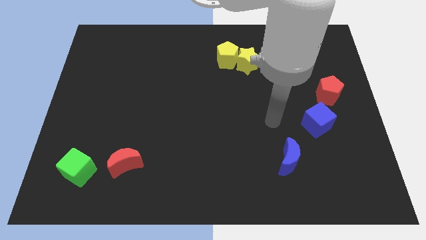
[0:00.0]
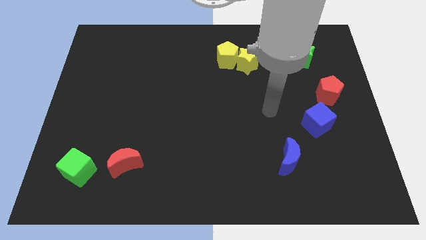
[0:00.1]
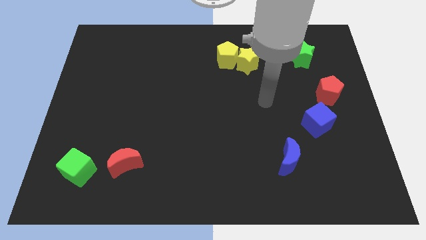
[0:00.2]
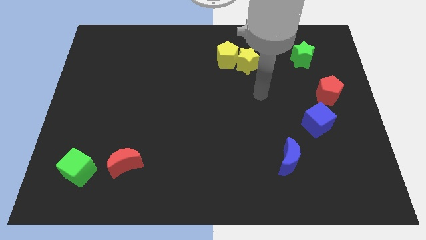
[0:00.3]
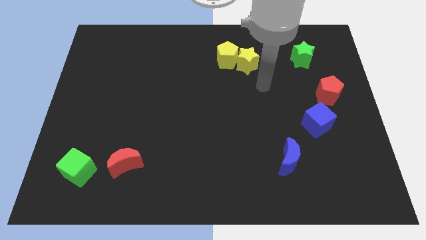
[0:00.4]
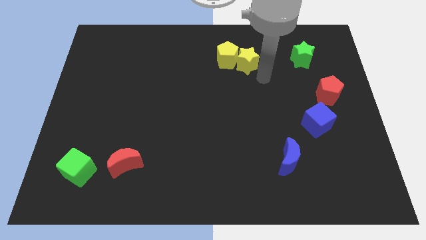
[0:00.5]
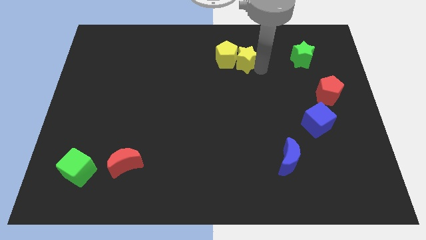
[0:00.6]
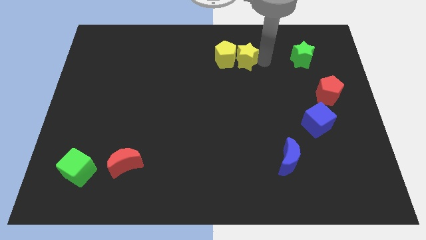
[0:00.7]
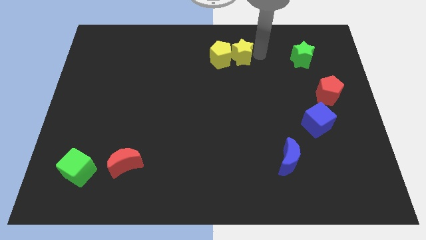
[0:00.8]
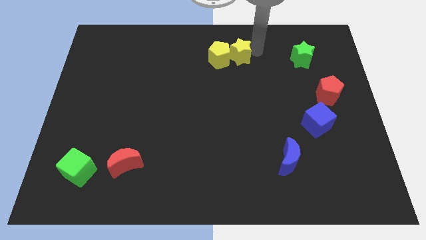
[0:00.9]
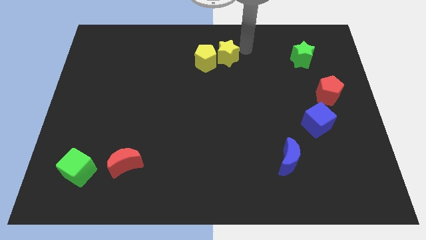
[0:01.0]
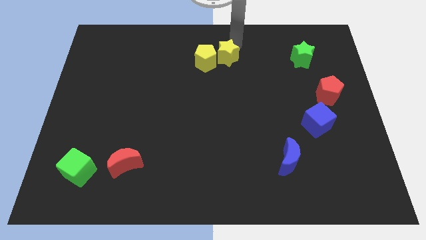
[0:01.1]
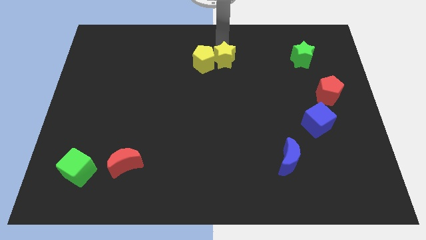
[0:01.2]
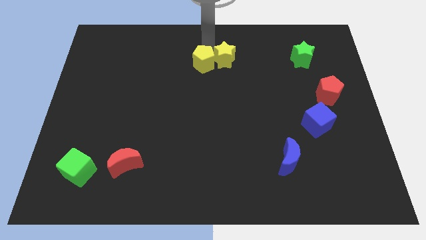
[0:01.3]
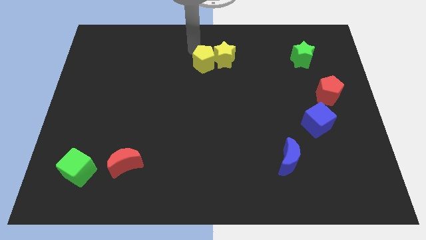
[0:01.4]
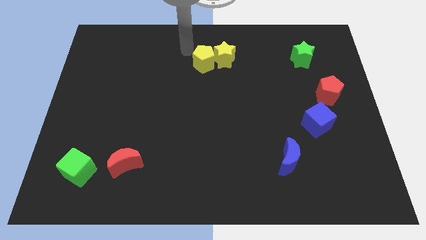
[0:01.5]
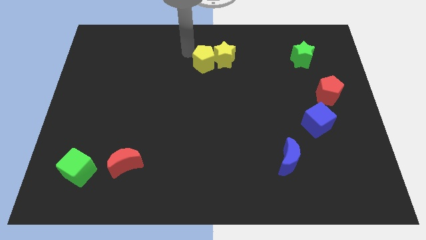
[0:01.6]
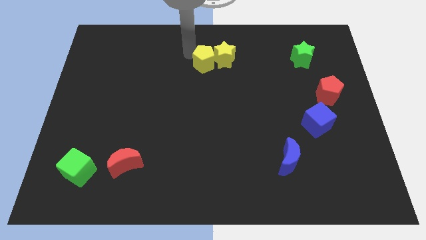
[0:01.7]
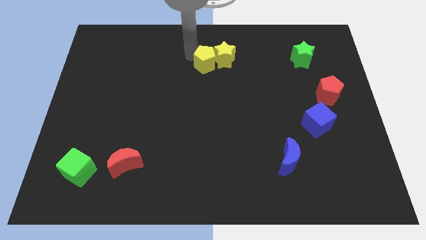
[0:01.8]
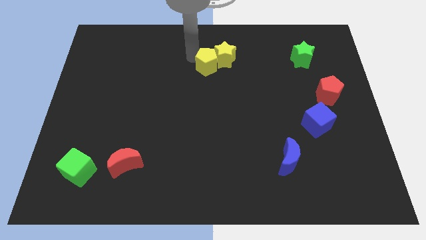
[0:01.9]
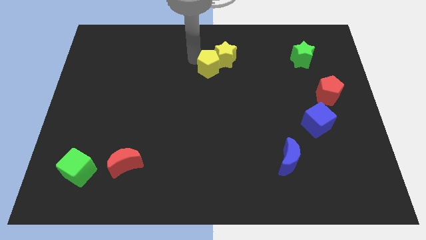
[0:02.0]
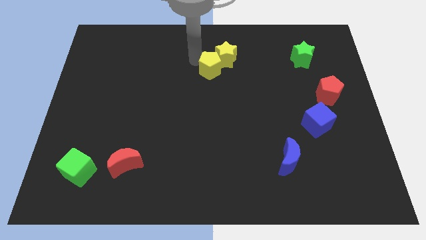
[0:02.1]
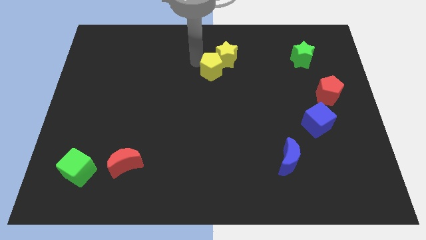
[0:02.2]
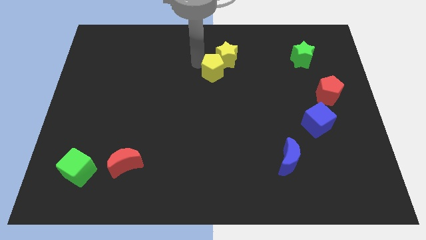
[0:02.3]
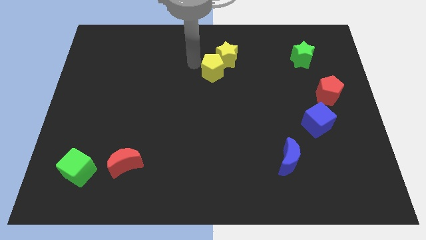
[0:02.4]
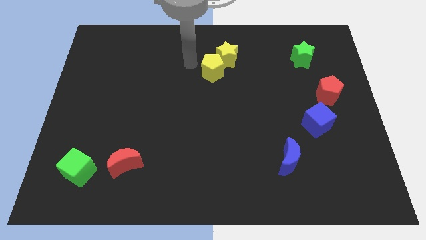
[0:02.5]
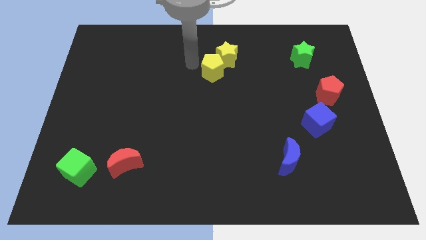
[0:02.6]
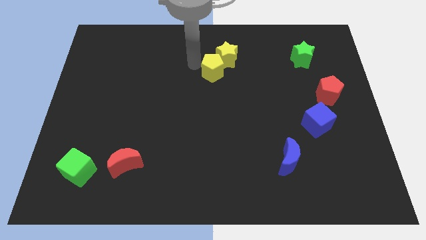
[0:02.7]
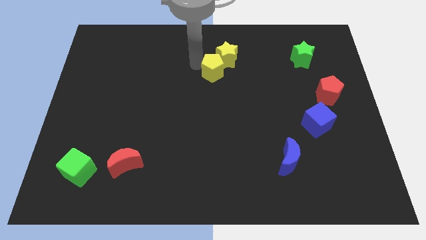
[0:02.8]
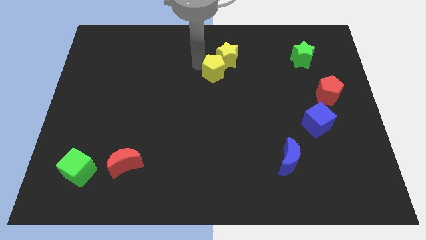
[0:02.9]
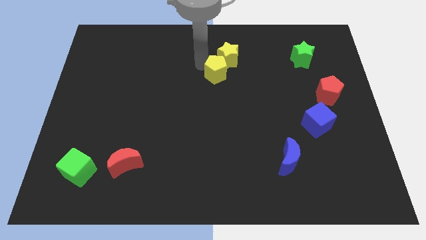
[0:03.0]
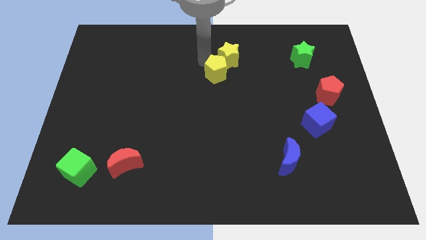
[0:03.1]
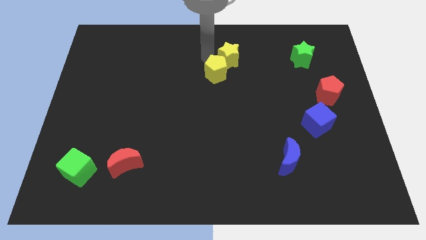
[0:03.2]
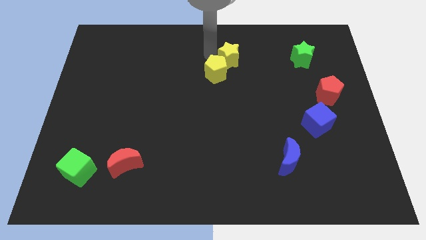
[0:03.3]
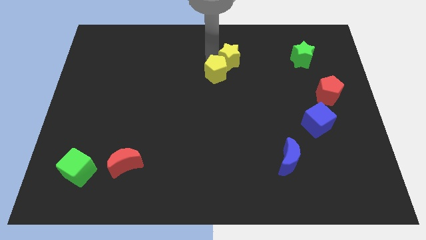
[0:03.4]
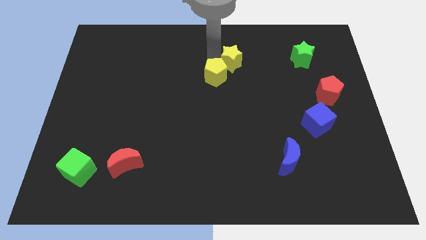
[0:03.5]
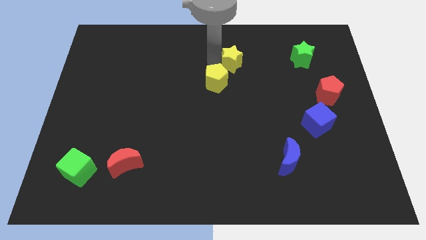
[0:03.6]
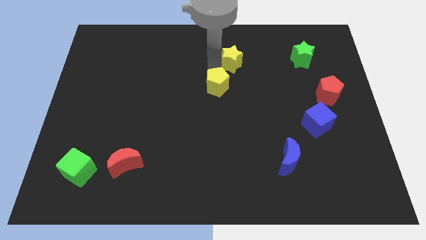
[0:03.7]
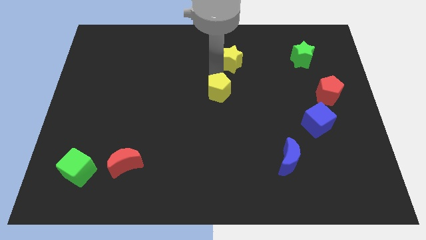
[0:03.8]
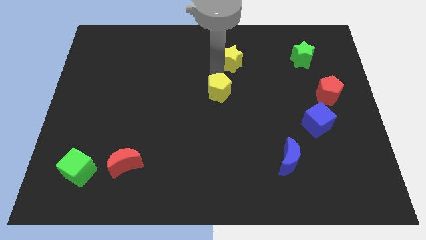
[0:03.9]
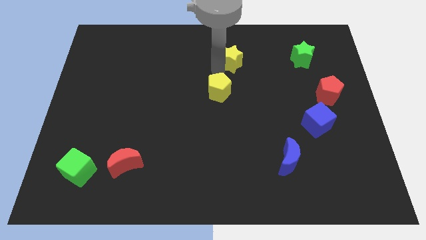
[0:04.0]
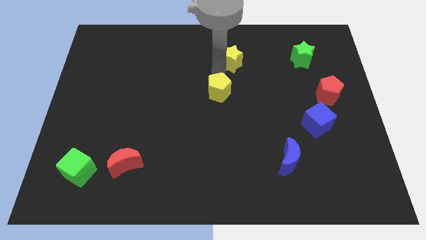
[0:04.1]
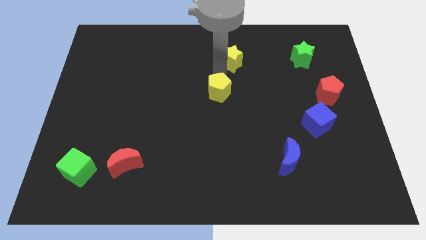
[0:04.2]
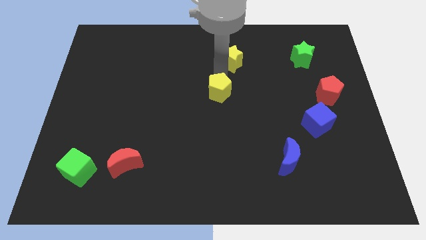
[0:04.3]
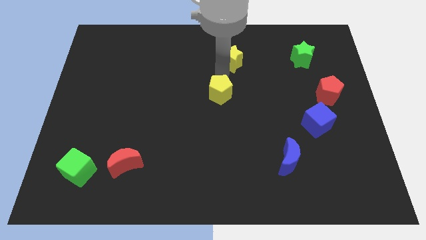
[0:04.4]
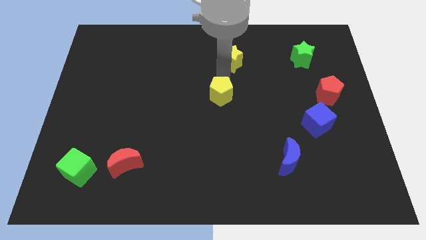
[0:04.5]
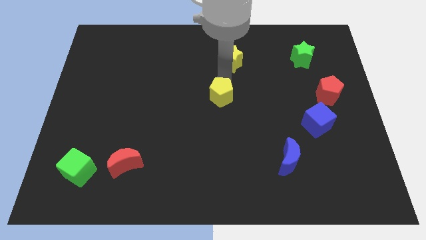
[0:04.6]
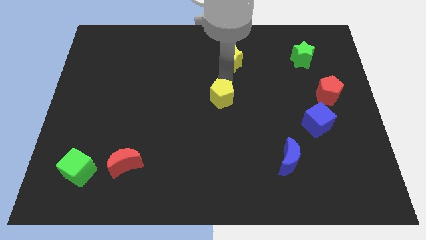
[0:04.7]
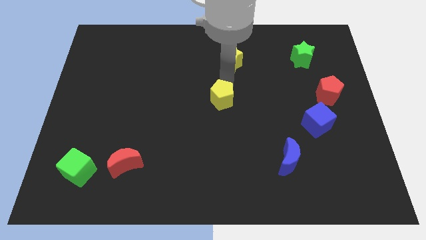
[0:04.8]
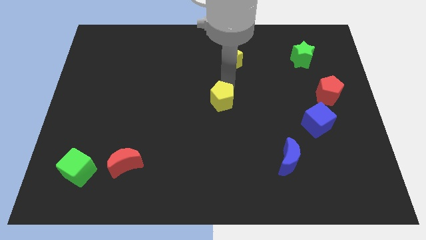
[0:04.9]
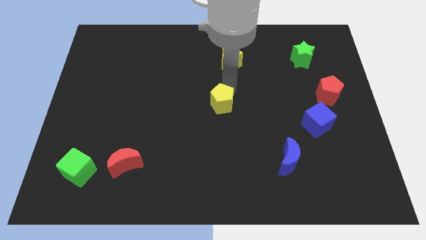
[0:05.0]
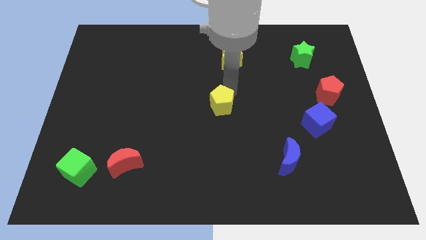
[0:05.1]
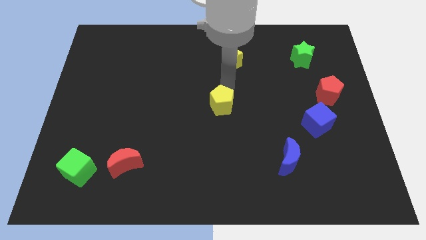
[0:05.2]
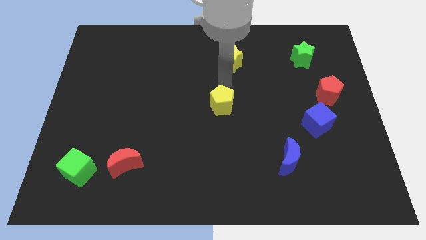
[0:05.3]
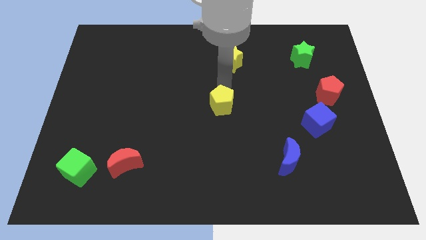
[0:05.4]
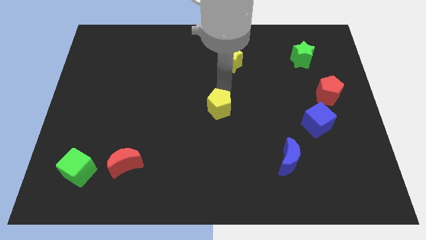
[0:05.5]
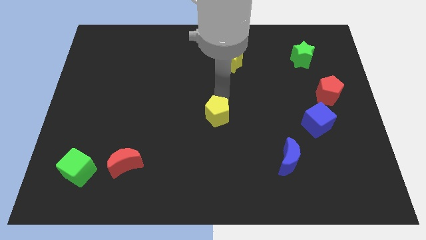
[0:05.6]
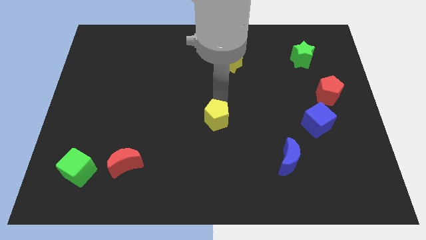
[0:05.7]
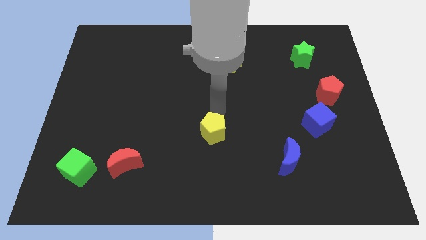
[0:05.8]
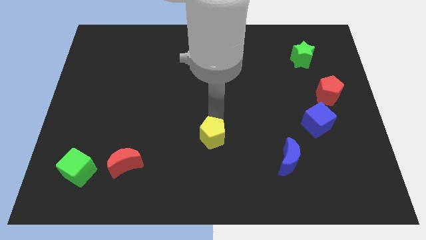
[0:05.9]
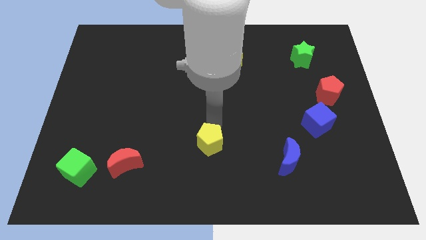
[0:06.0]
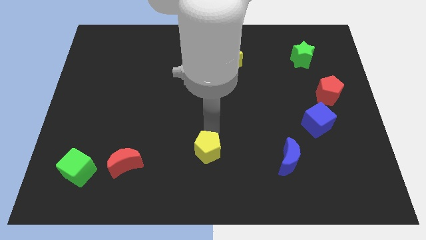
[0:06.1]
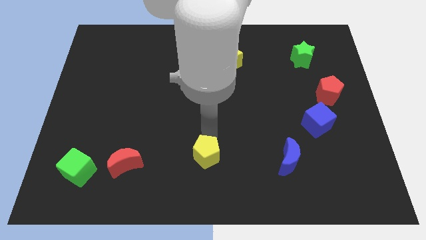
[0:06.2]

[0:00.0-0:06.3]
push the yellow pentagon to the bottom
